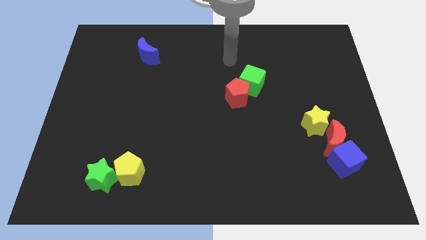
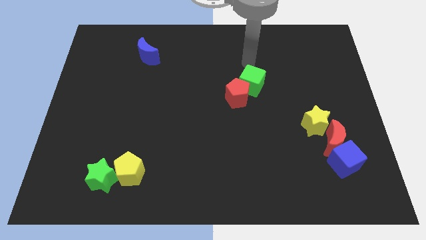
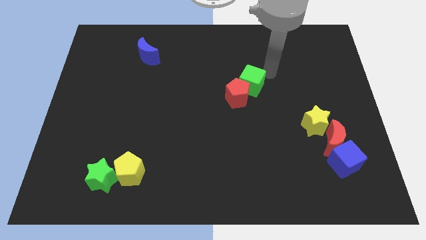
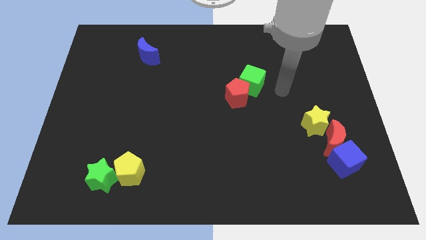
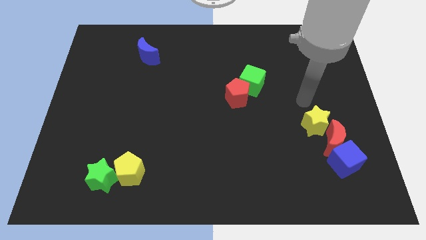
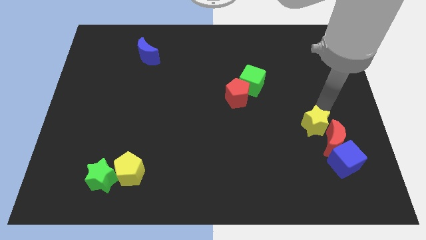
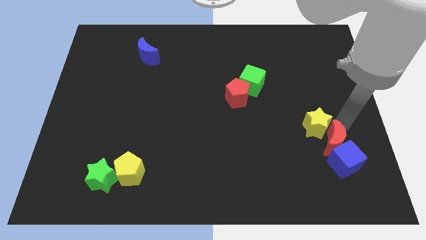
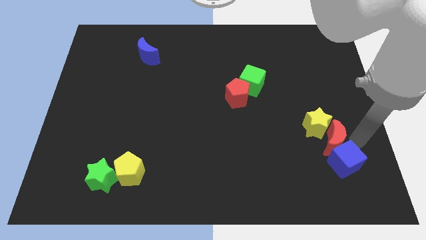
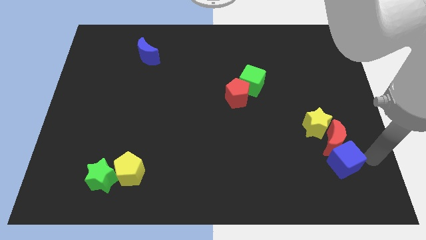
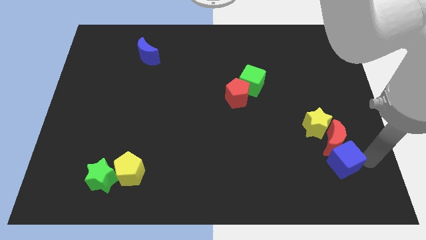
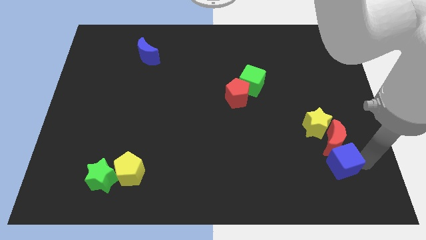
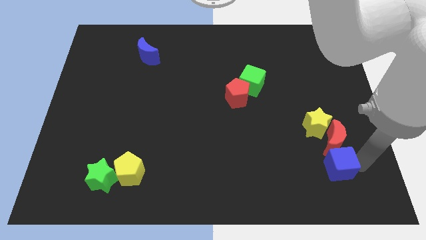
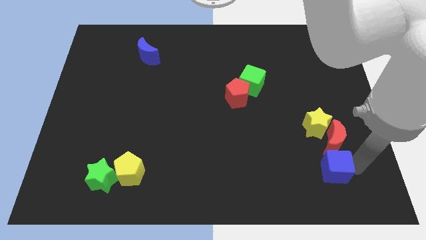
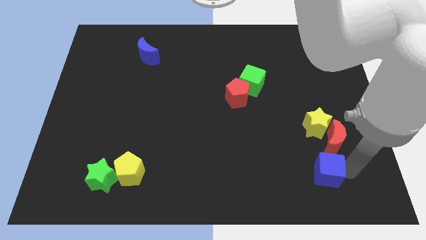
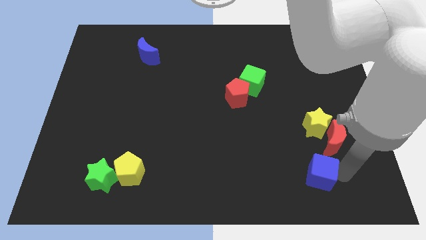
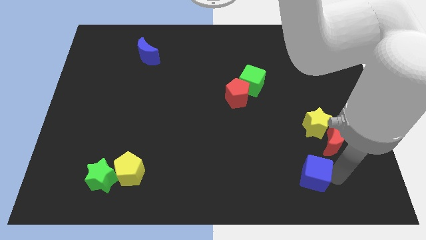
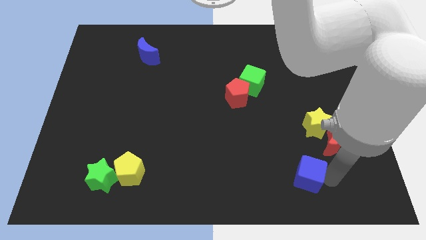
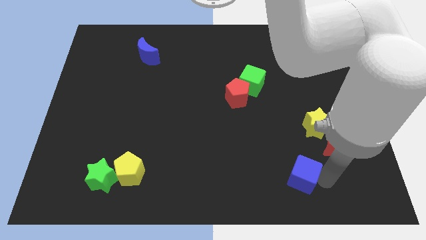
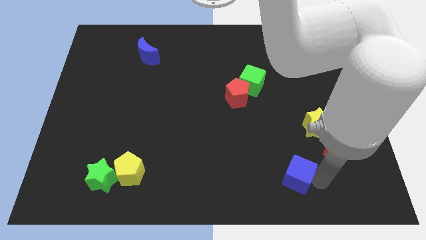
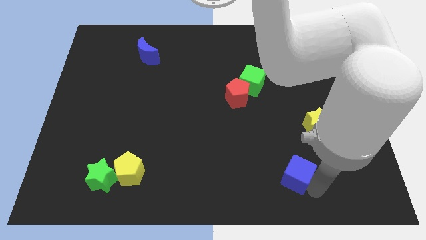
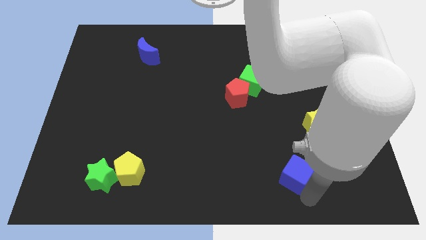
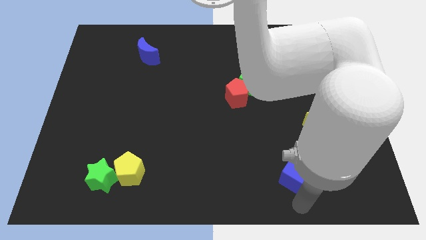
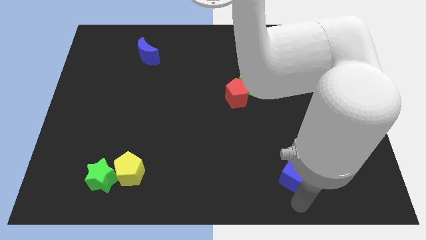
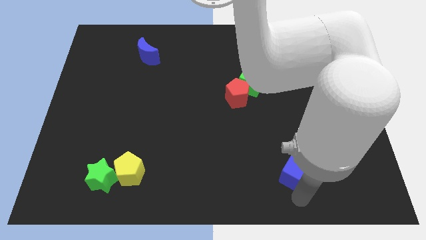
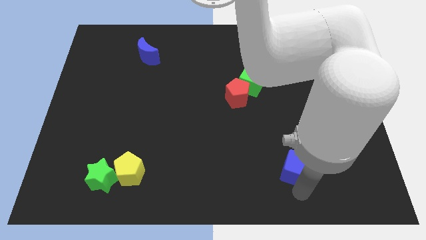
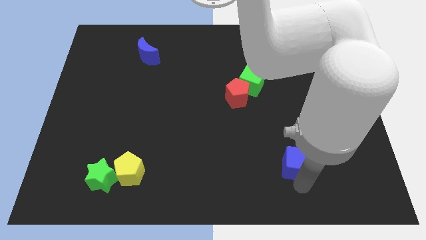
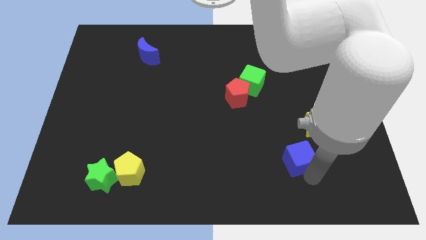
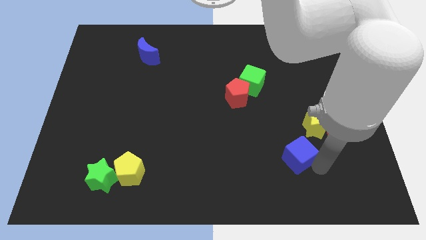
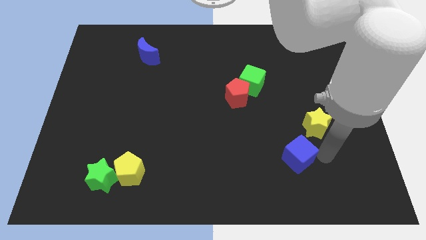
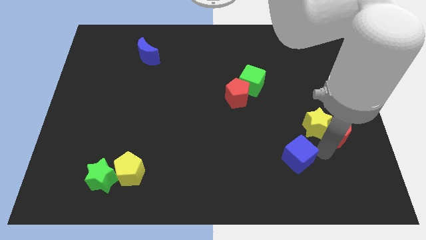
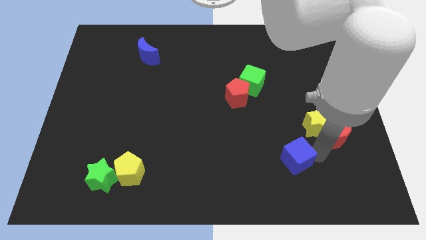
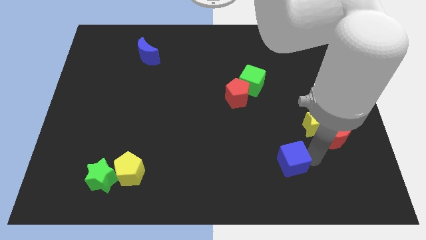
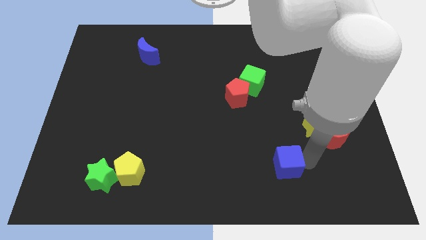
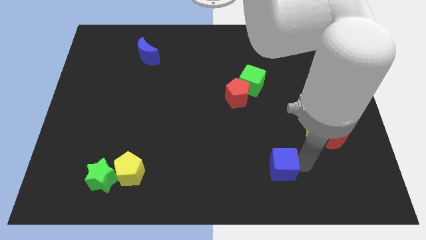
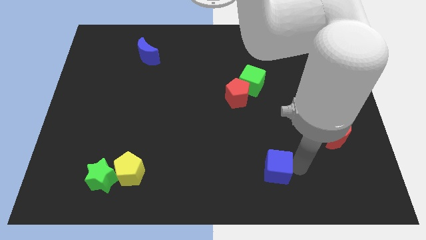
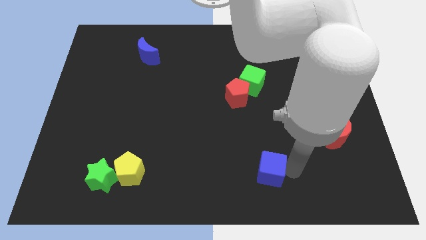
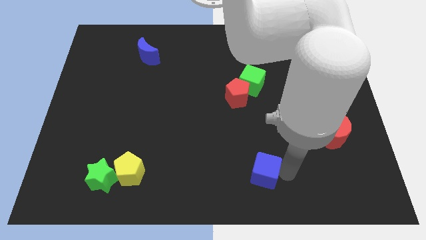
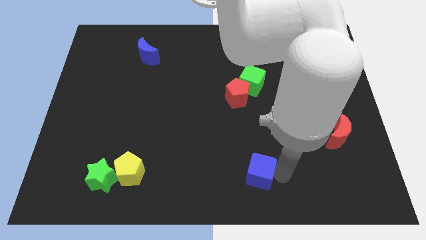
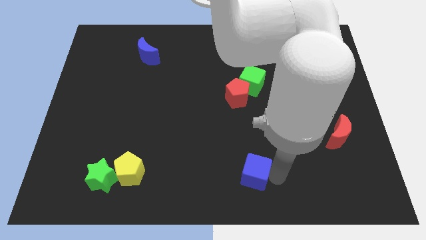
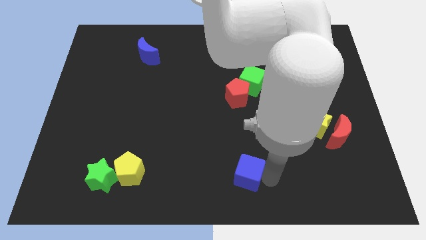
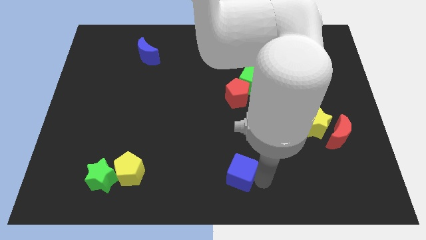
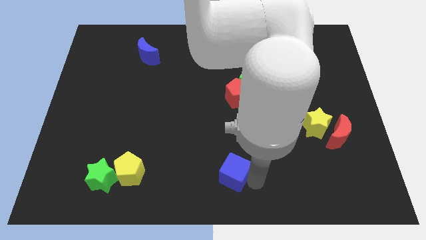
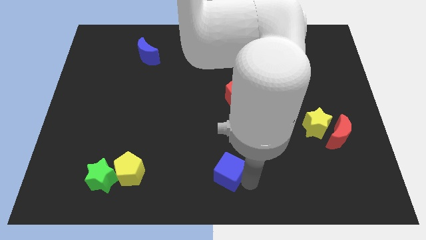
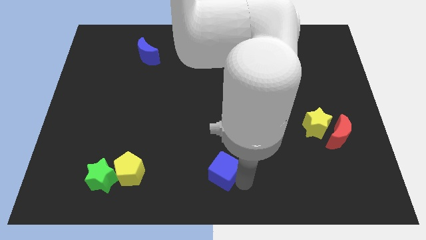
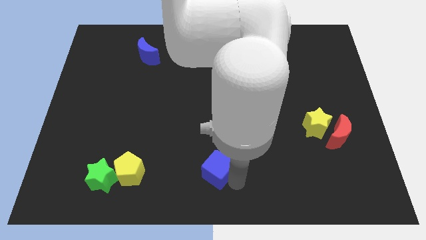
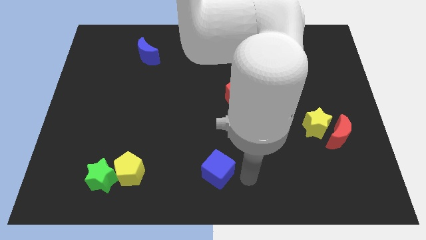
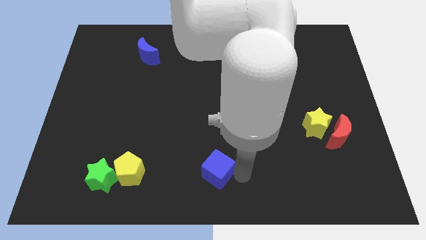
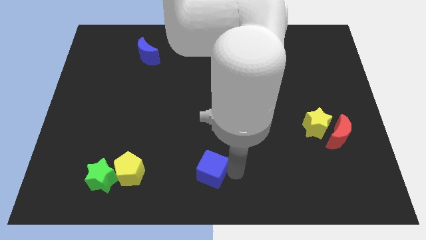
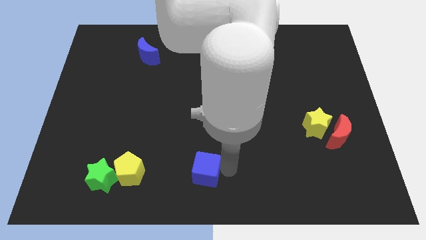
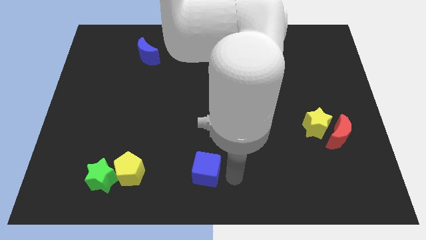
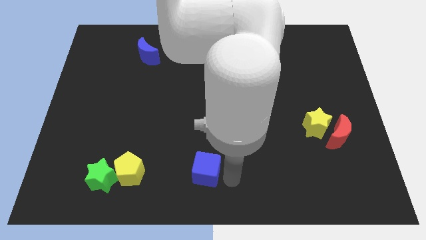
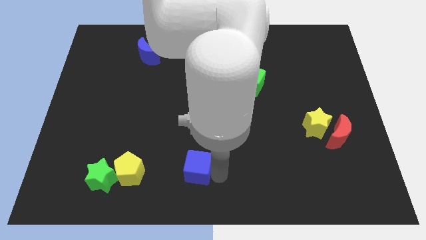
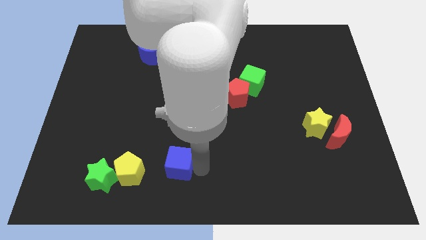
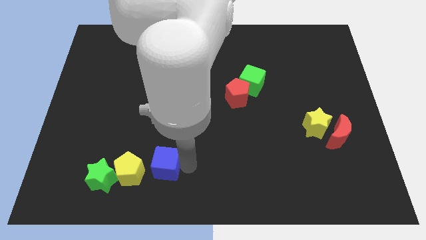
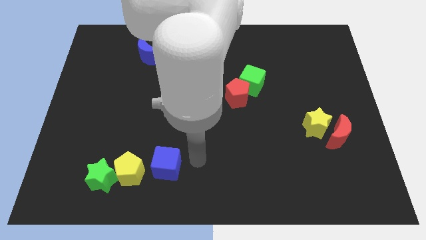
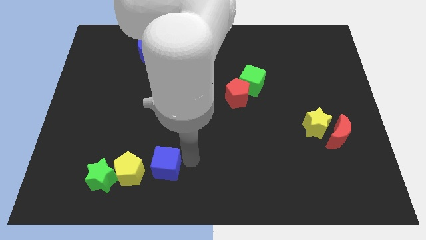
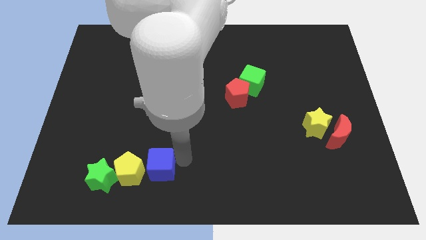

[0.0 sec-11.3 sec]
move the blue cube towards the yellow pentagon
